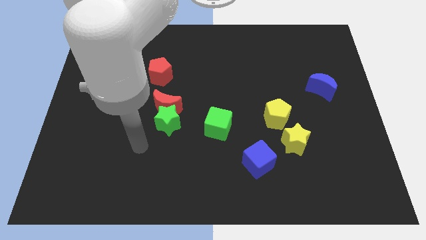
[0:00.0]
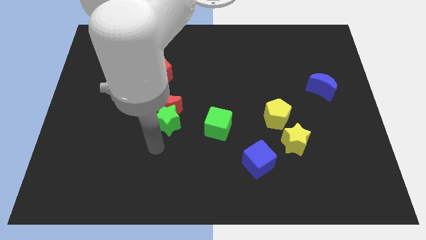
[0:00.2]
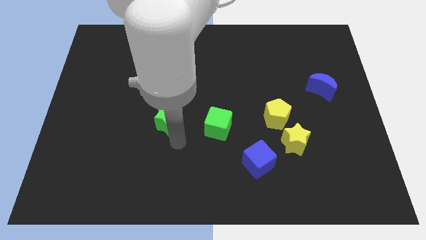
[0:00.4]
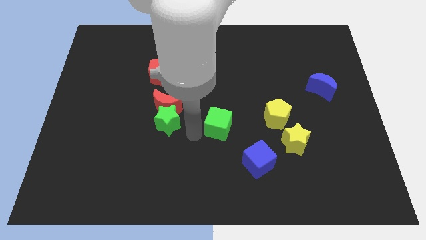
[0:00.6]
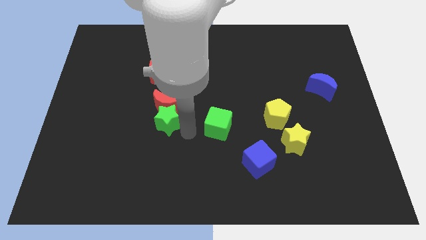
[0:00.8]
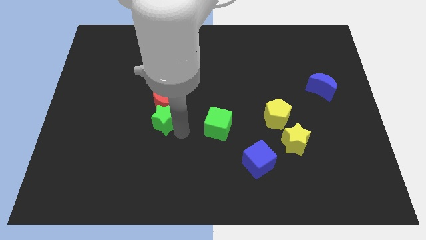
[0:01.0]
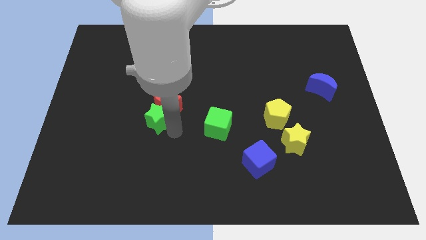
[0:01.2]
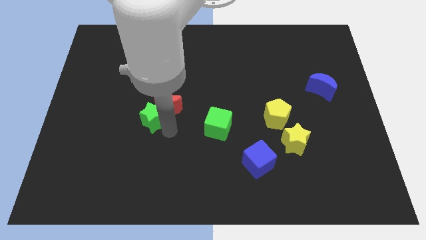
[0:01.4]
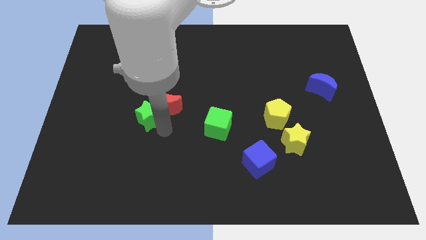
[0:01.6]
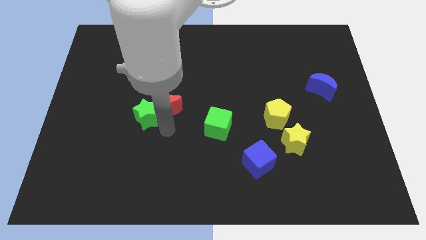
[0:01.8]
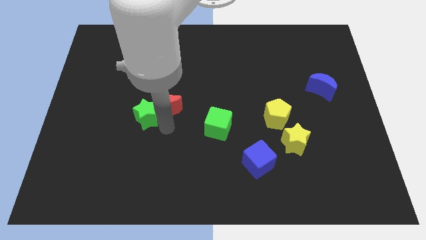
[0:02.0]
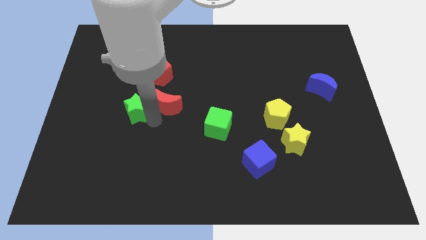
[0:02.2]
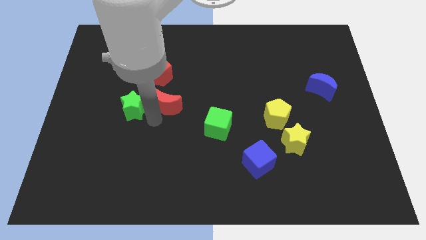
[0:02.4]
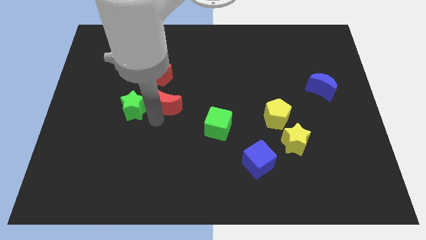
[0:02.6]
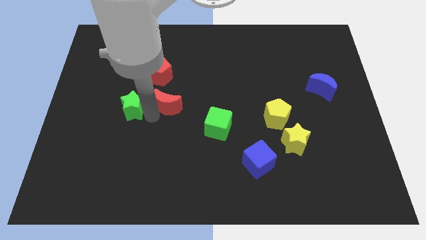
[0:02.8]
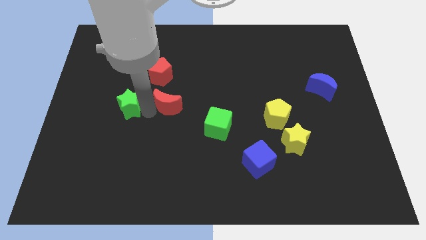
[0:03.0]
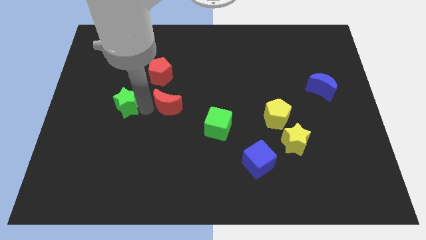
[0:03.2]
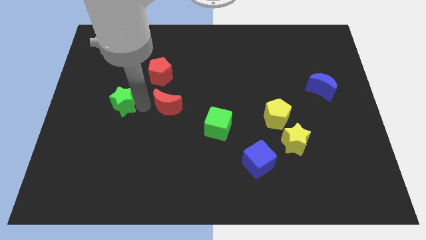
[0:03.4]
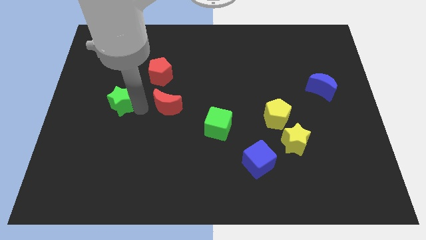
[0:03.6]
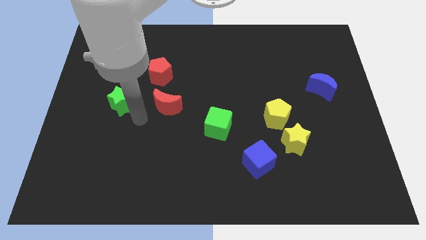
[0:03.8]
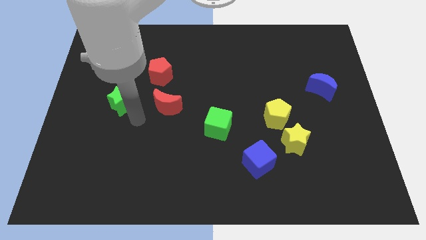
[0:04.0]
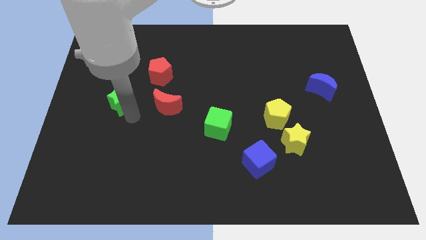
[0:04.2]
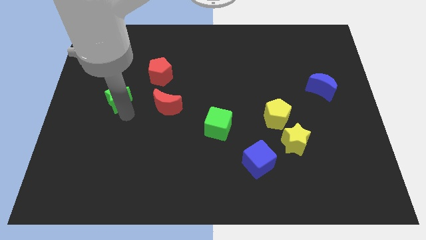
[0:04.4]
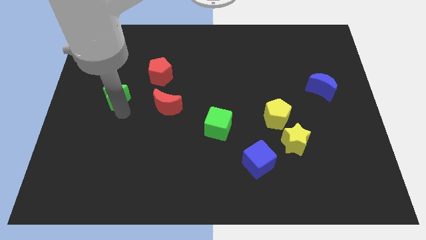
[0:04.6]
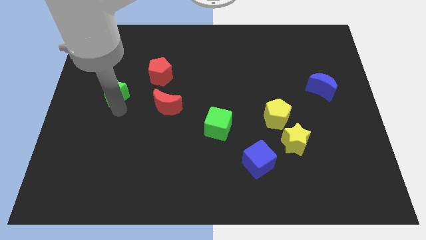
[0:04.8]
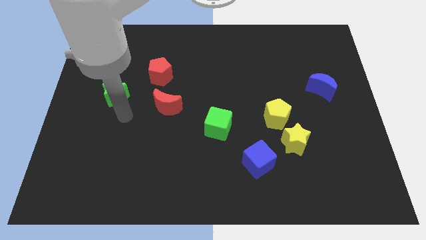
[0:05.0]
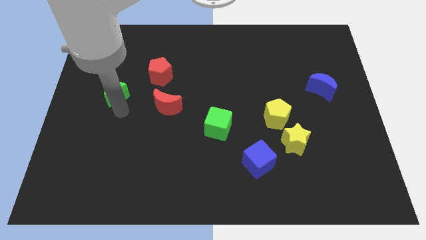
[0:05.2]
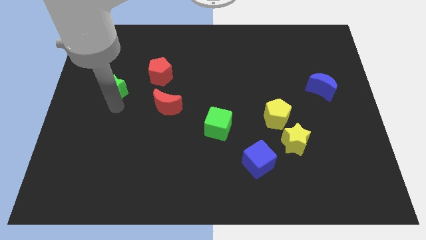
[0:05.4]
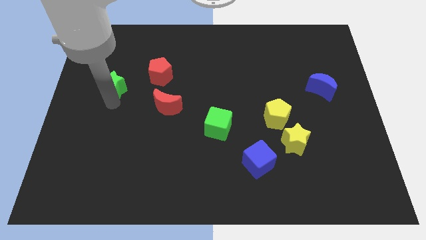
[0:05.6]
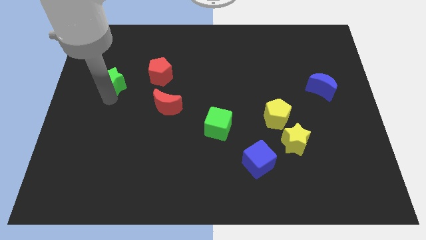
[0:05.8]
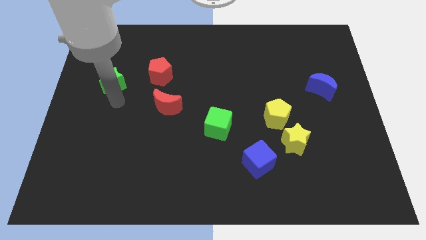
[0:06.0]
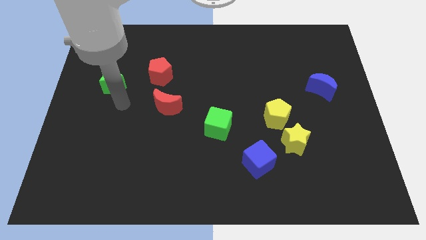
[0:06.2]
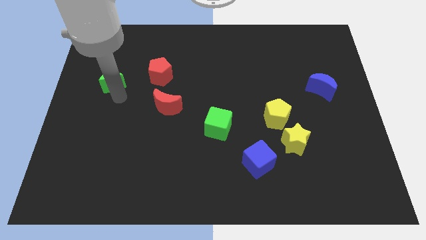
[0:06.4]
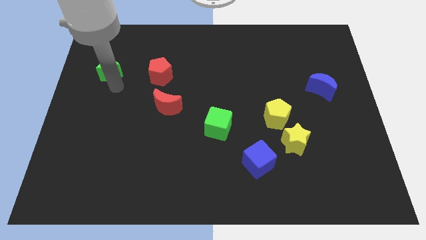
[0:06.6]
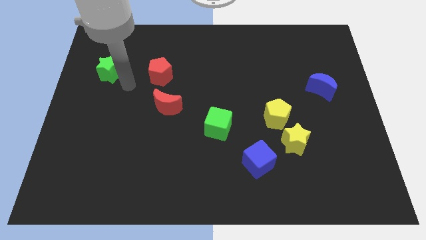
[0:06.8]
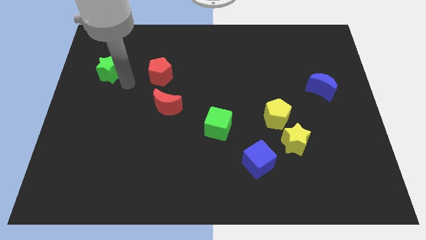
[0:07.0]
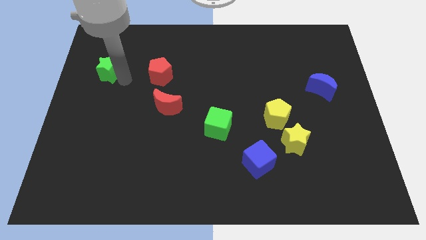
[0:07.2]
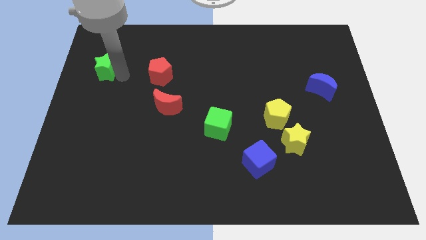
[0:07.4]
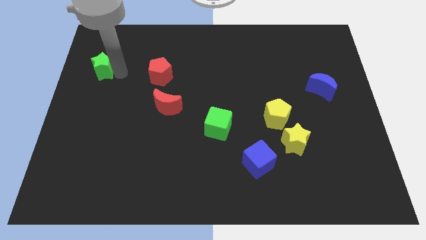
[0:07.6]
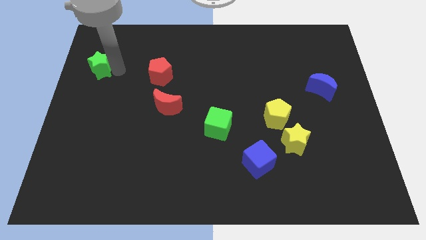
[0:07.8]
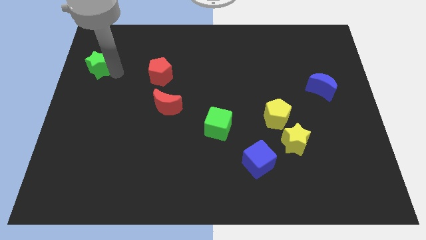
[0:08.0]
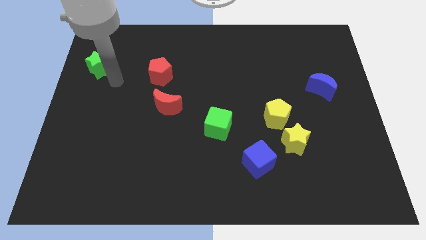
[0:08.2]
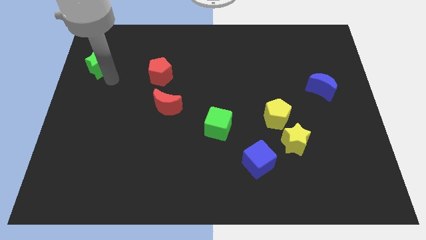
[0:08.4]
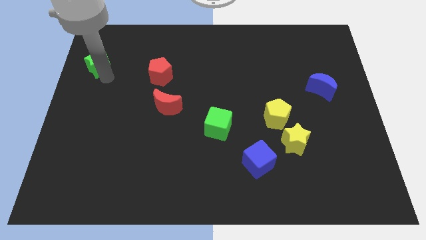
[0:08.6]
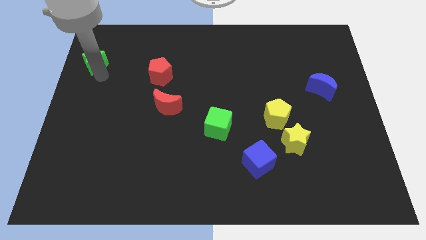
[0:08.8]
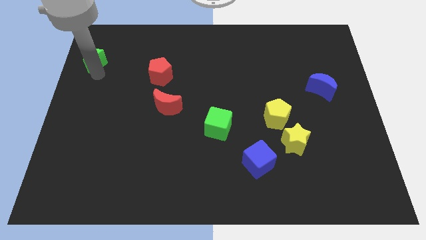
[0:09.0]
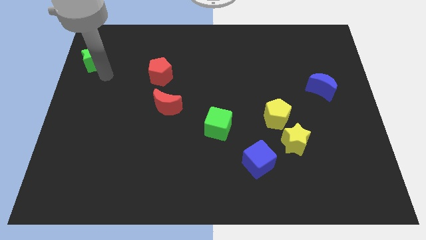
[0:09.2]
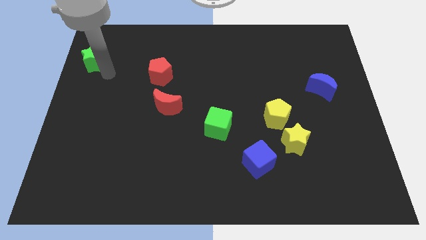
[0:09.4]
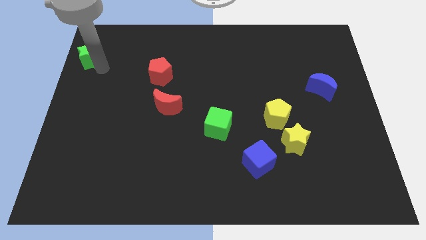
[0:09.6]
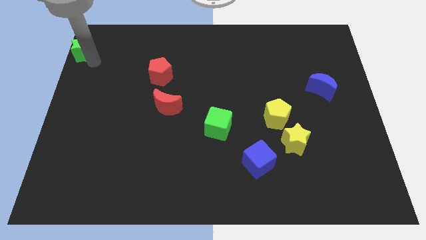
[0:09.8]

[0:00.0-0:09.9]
slide the green star to the top left corner

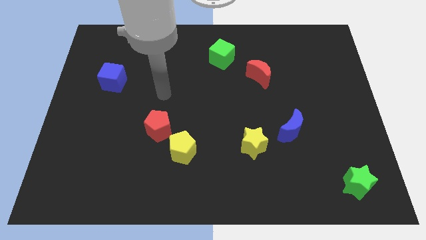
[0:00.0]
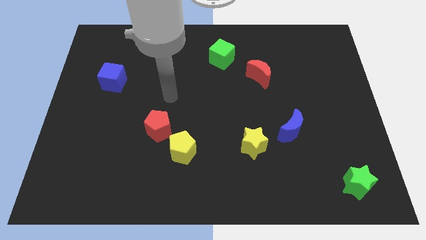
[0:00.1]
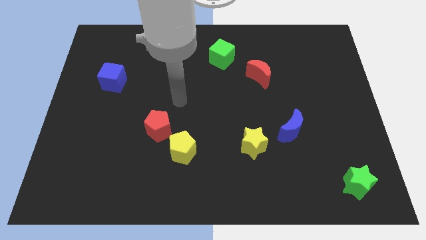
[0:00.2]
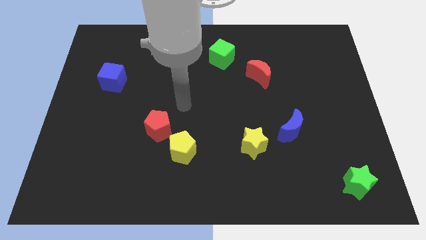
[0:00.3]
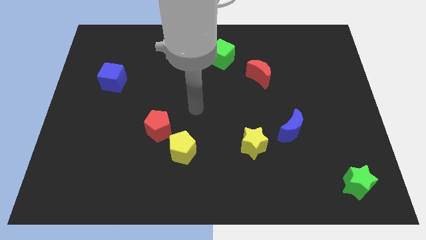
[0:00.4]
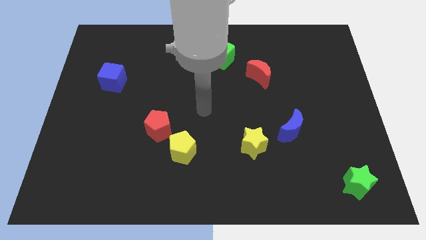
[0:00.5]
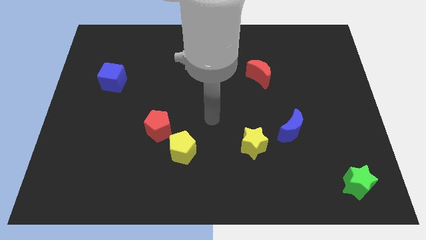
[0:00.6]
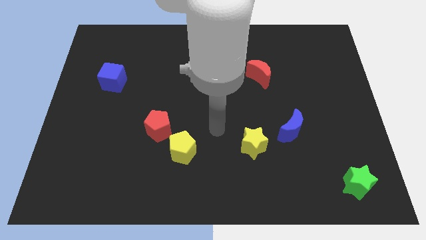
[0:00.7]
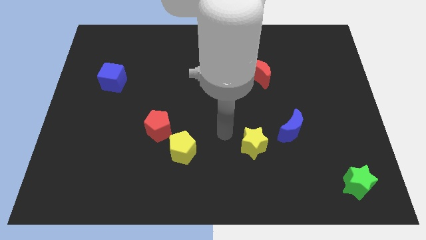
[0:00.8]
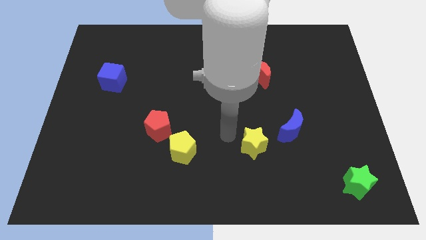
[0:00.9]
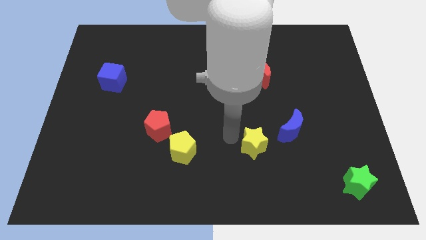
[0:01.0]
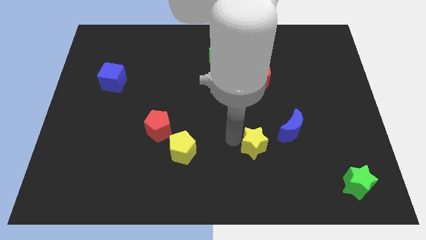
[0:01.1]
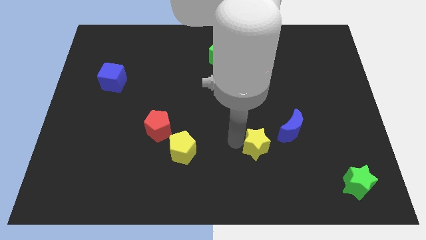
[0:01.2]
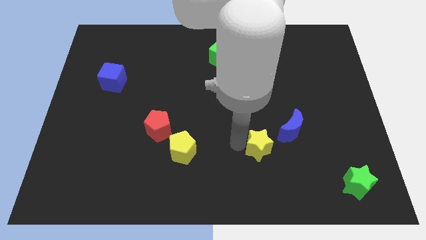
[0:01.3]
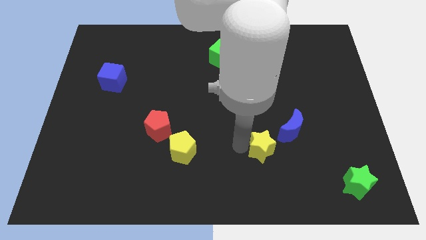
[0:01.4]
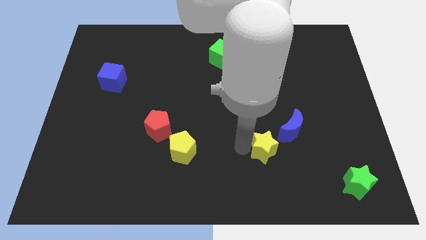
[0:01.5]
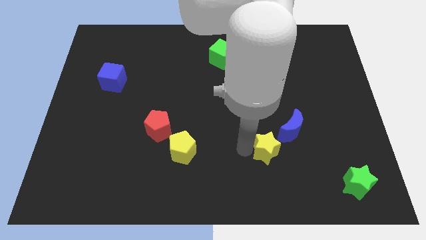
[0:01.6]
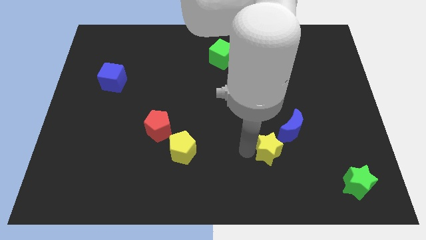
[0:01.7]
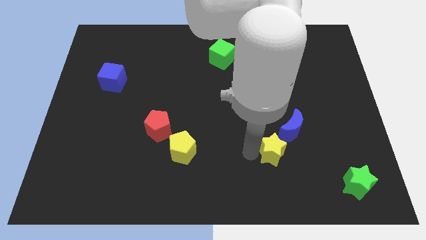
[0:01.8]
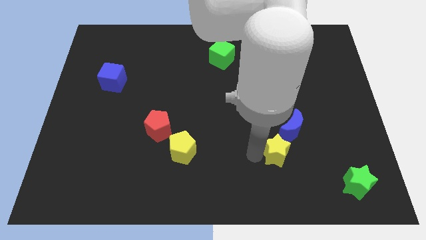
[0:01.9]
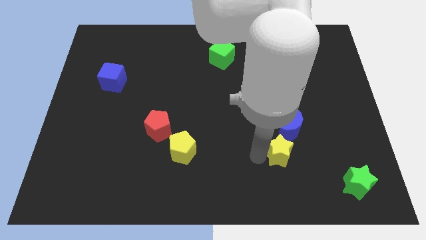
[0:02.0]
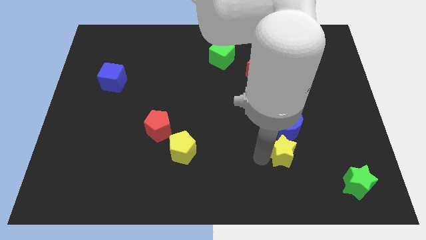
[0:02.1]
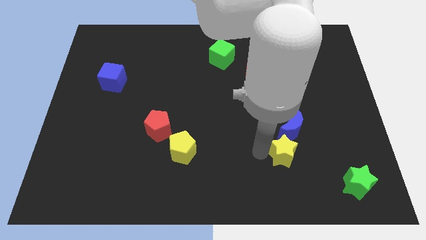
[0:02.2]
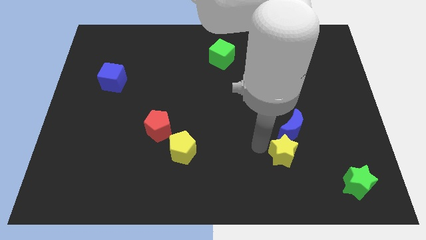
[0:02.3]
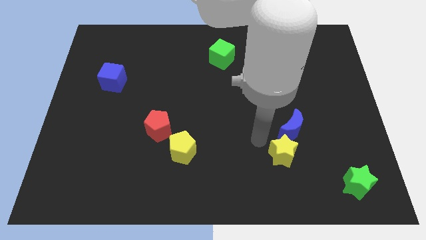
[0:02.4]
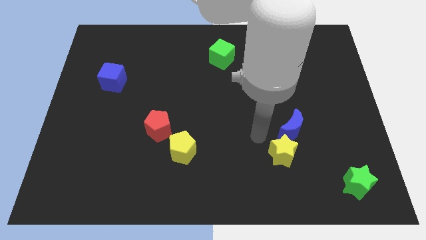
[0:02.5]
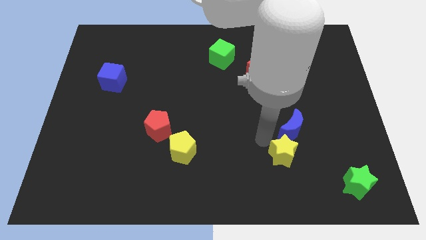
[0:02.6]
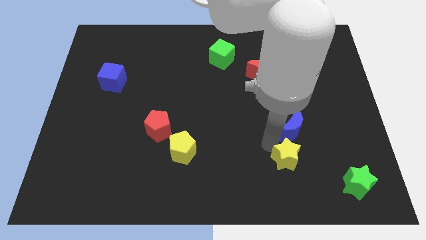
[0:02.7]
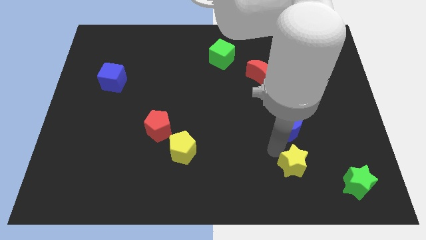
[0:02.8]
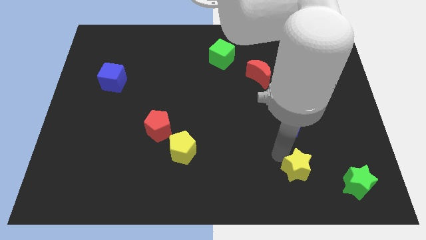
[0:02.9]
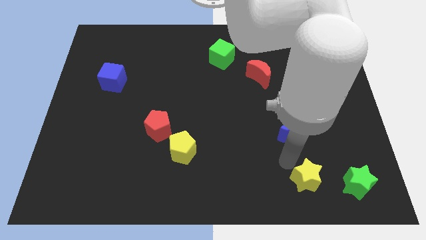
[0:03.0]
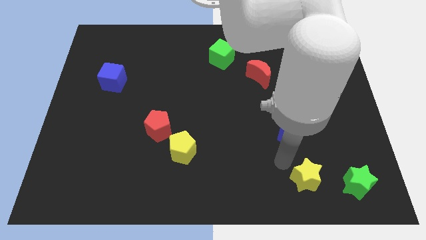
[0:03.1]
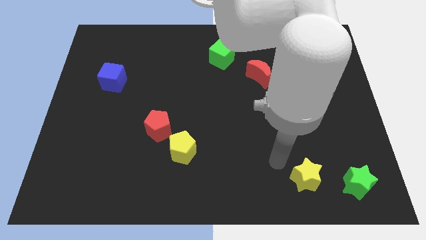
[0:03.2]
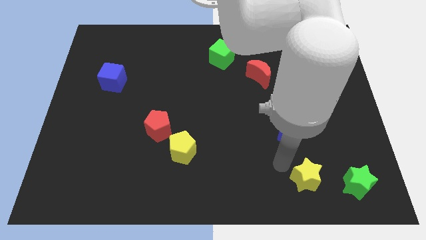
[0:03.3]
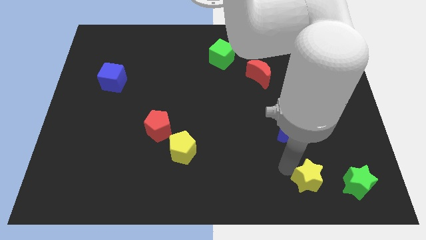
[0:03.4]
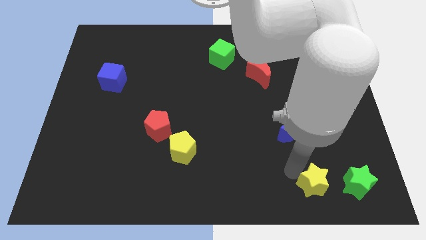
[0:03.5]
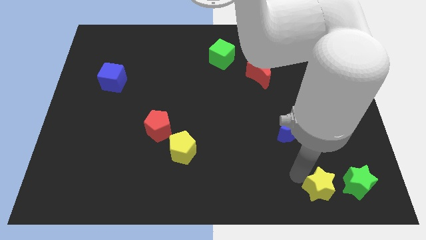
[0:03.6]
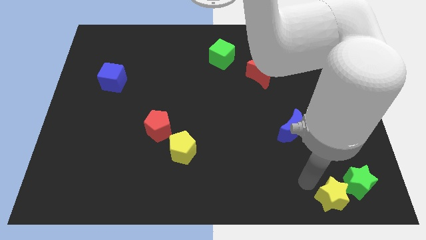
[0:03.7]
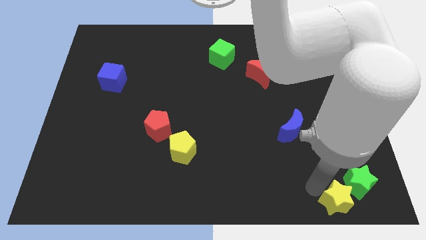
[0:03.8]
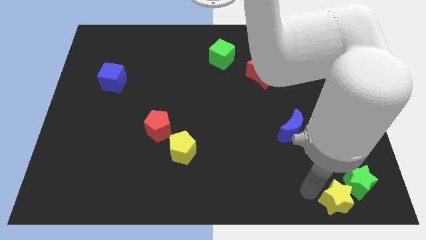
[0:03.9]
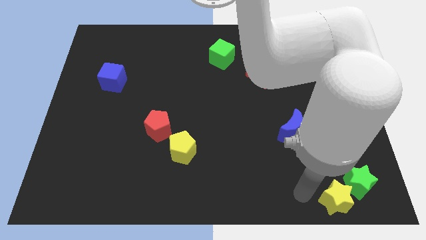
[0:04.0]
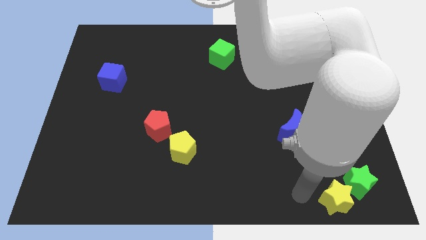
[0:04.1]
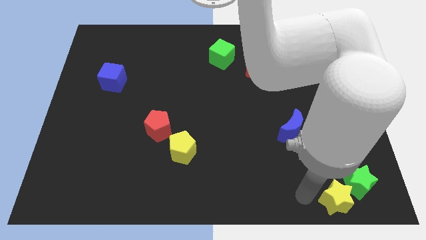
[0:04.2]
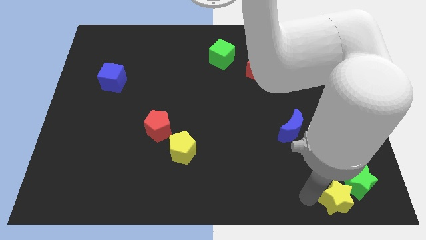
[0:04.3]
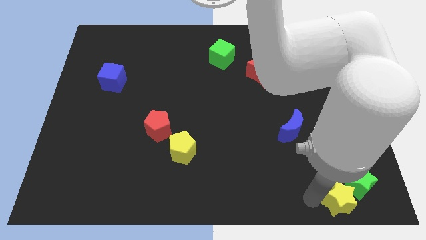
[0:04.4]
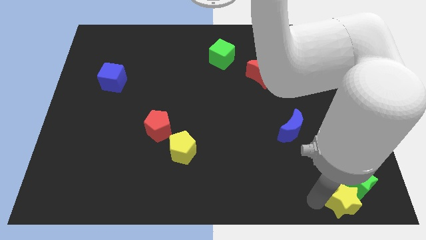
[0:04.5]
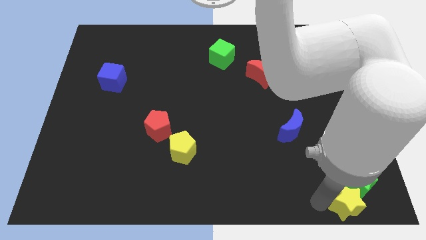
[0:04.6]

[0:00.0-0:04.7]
move the yellow star to the bottom right
